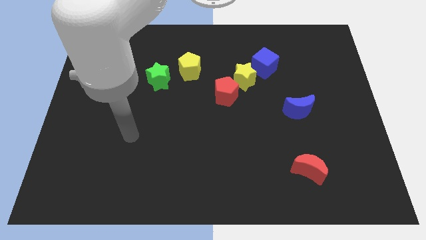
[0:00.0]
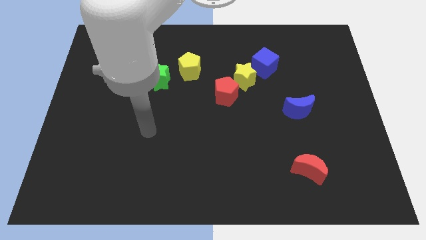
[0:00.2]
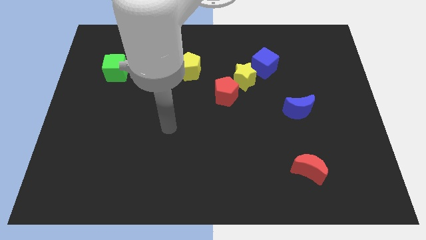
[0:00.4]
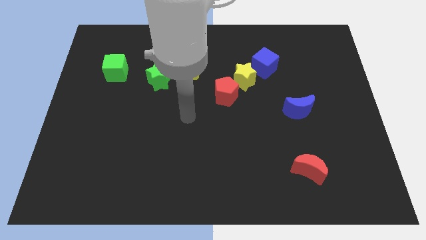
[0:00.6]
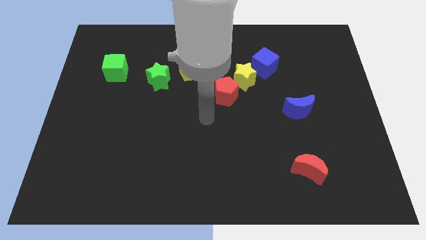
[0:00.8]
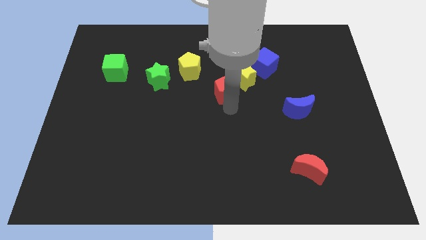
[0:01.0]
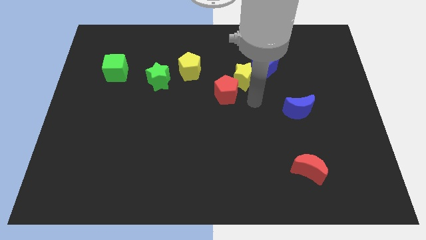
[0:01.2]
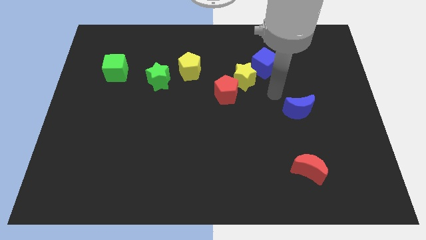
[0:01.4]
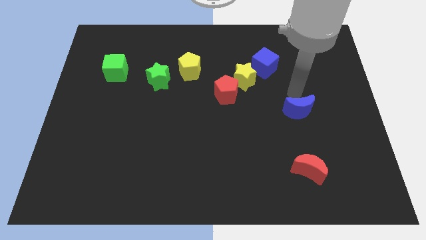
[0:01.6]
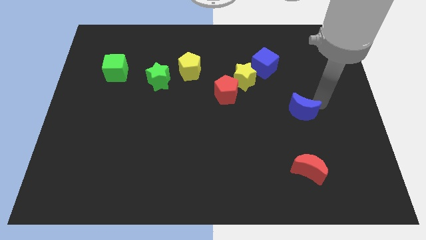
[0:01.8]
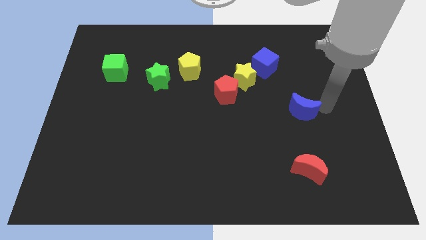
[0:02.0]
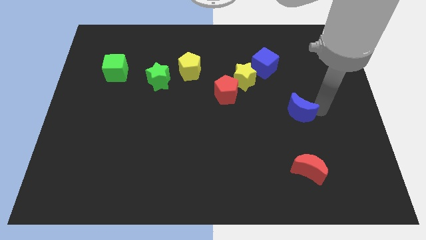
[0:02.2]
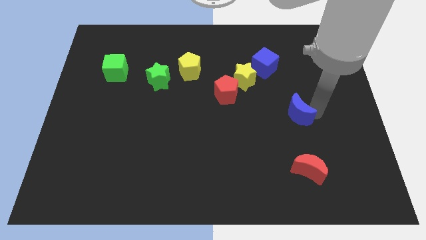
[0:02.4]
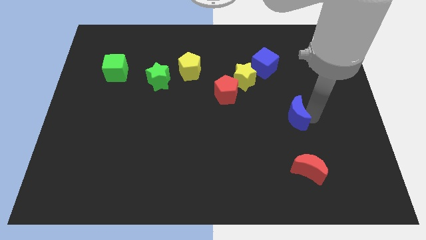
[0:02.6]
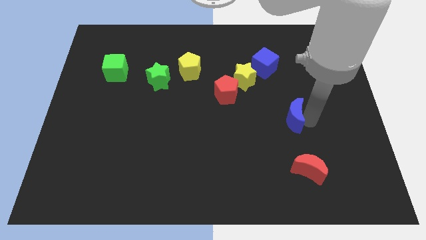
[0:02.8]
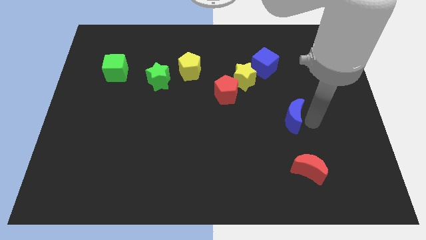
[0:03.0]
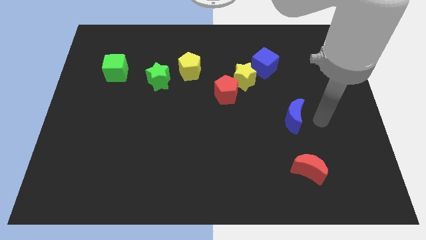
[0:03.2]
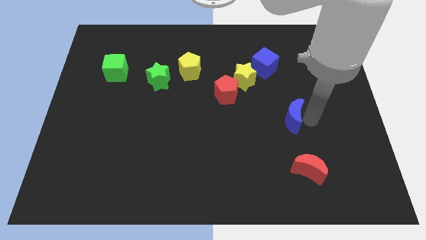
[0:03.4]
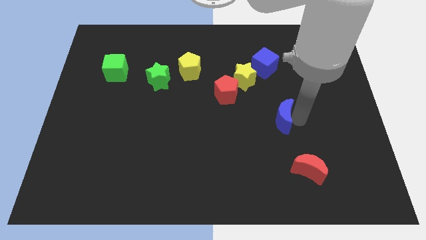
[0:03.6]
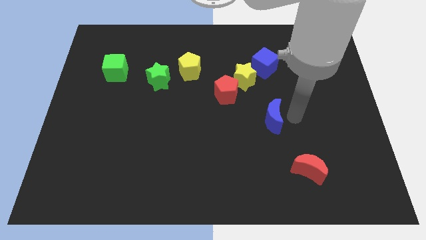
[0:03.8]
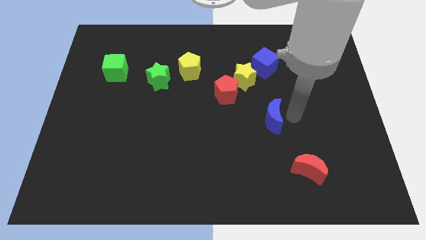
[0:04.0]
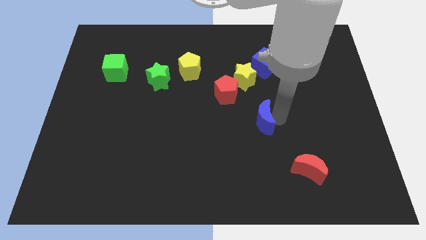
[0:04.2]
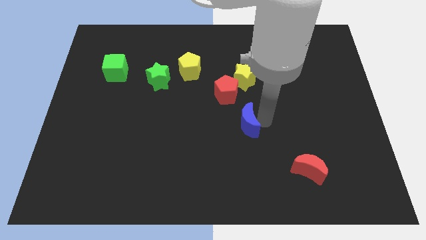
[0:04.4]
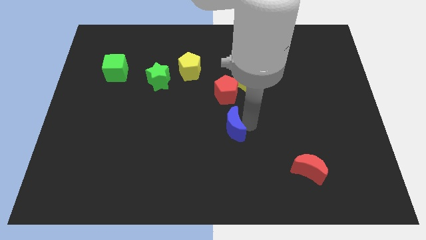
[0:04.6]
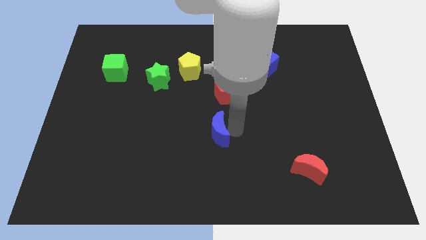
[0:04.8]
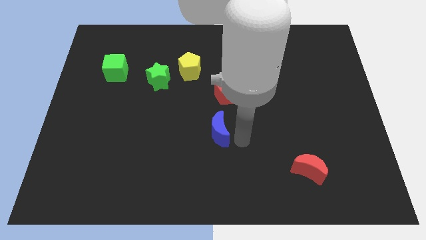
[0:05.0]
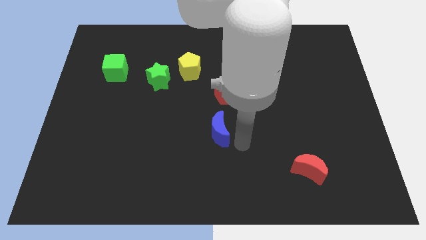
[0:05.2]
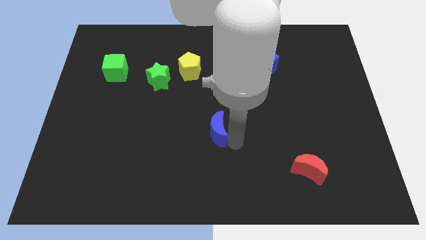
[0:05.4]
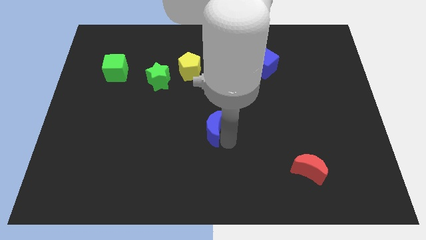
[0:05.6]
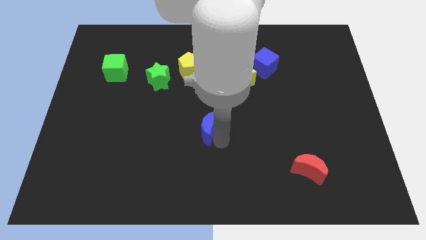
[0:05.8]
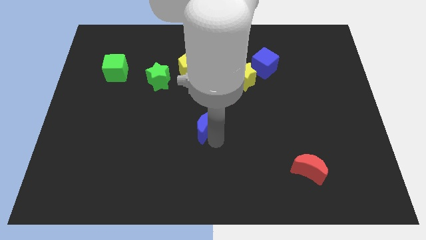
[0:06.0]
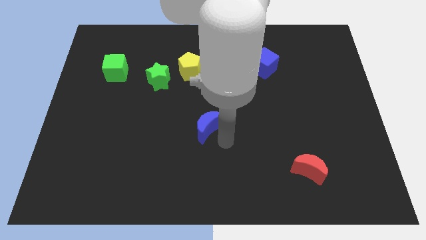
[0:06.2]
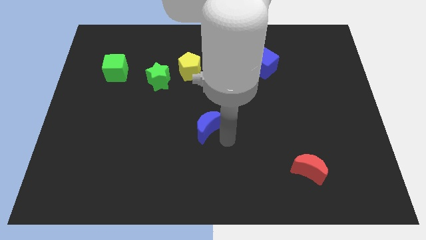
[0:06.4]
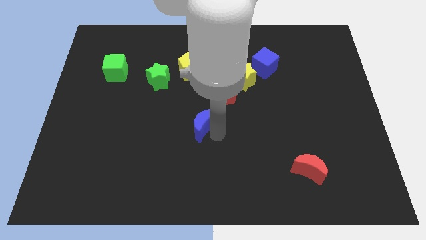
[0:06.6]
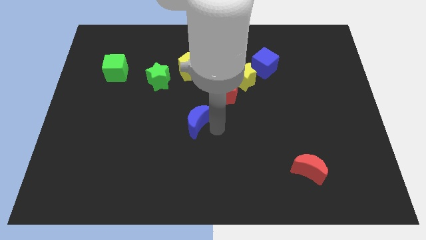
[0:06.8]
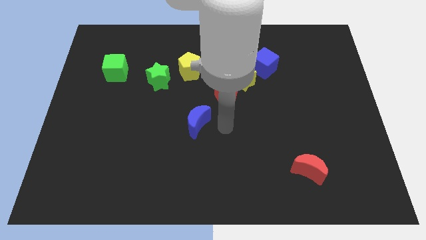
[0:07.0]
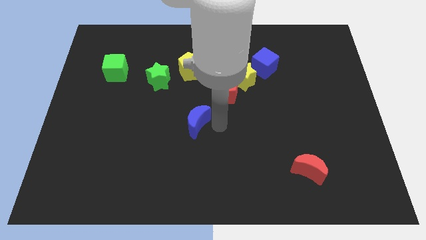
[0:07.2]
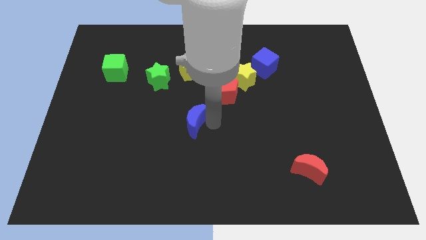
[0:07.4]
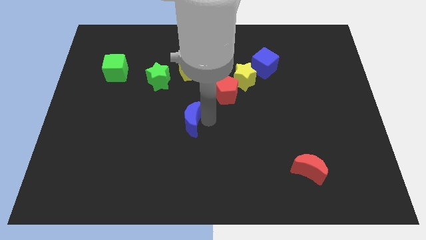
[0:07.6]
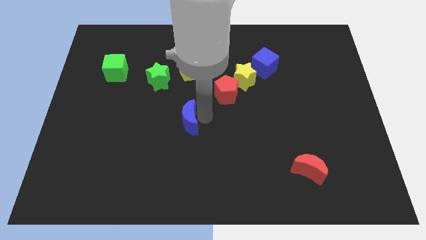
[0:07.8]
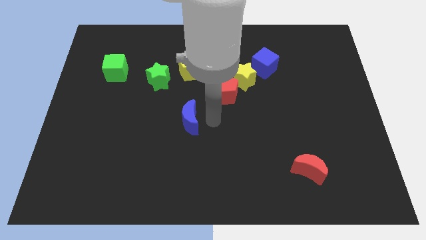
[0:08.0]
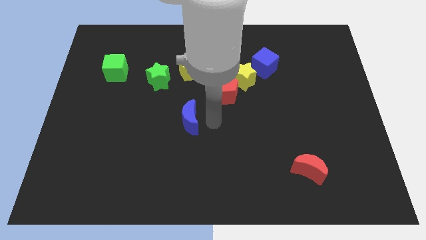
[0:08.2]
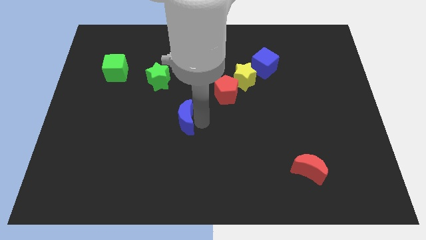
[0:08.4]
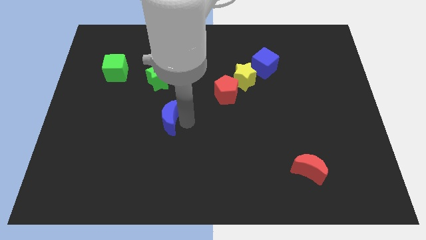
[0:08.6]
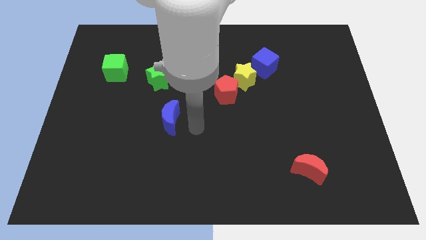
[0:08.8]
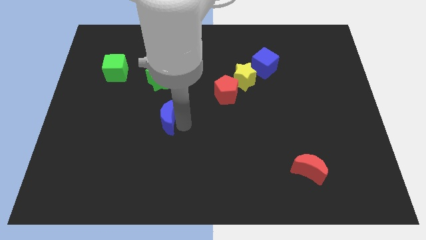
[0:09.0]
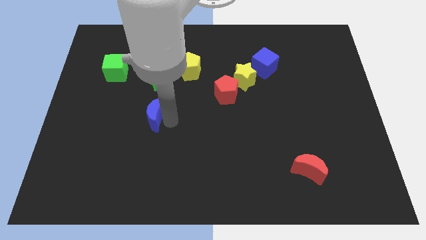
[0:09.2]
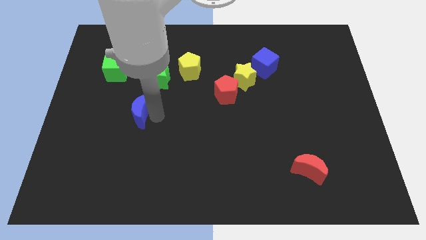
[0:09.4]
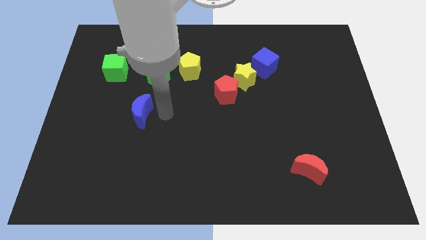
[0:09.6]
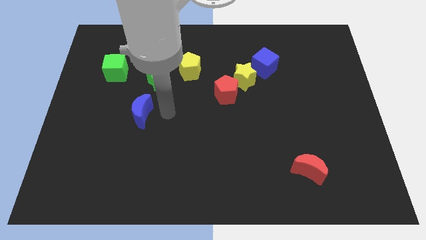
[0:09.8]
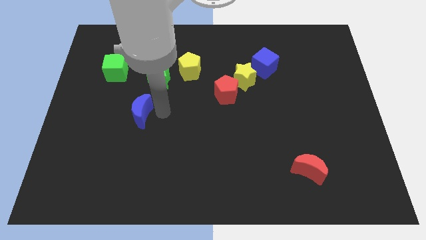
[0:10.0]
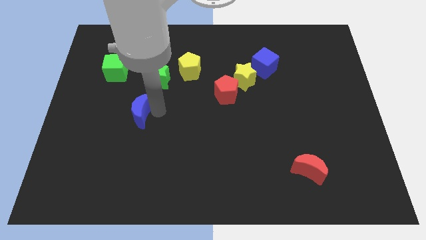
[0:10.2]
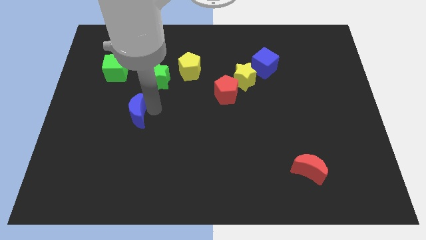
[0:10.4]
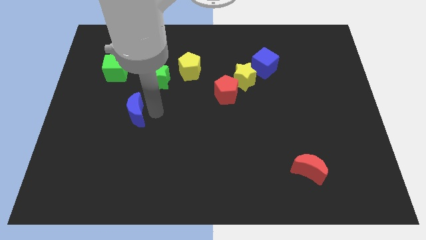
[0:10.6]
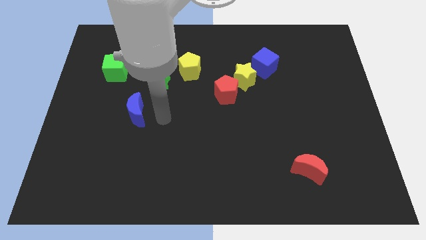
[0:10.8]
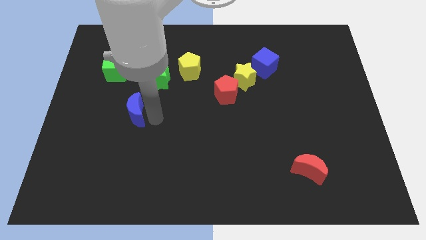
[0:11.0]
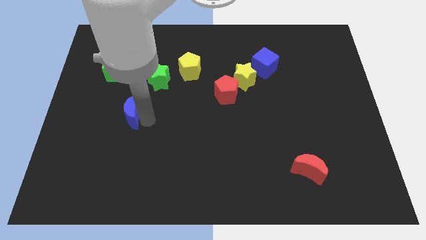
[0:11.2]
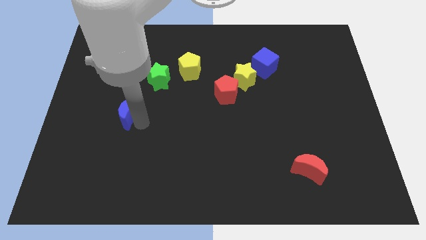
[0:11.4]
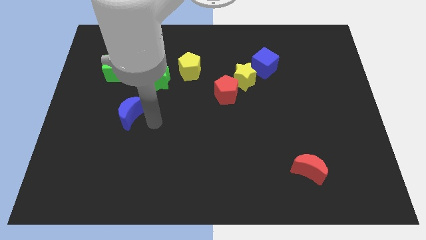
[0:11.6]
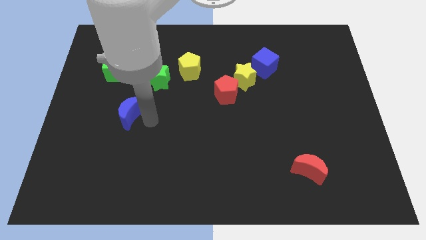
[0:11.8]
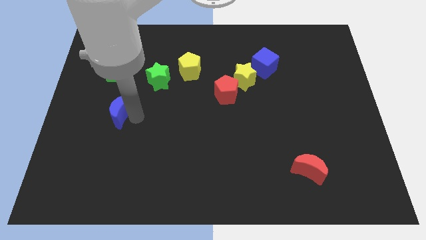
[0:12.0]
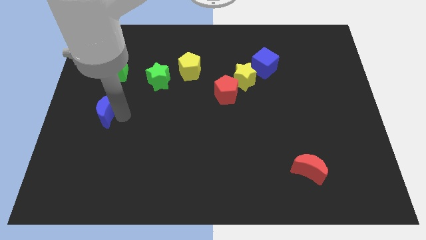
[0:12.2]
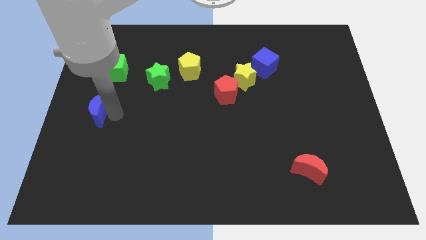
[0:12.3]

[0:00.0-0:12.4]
put the blue moon to the center left

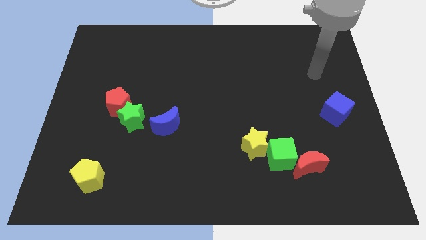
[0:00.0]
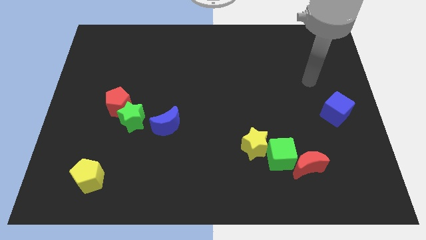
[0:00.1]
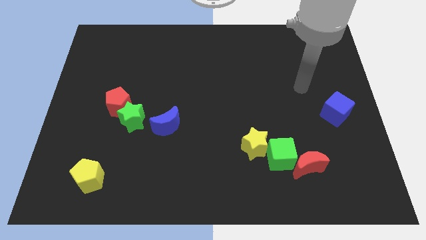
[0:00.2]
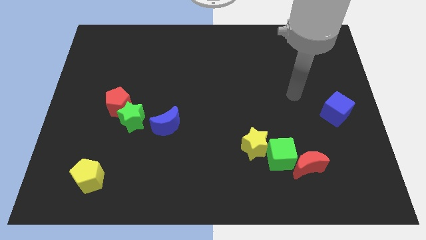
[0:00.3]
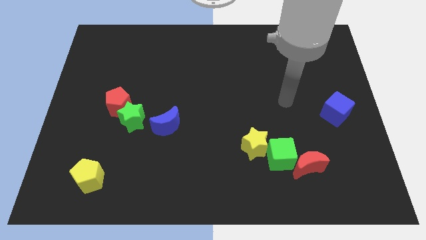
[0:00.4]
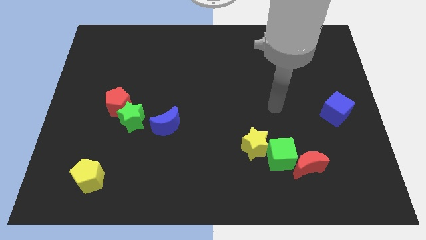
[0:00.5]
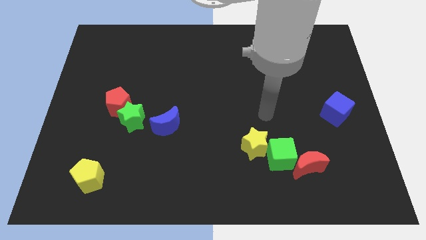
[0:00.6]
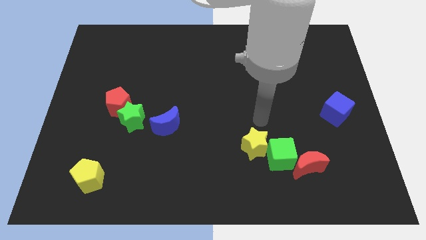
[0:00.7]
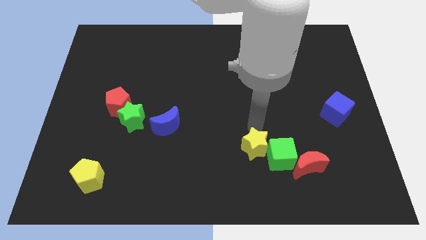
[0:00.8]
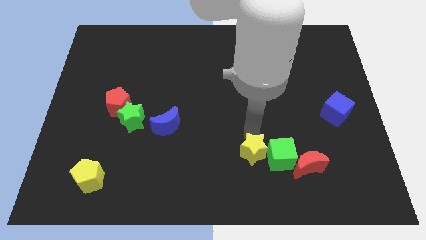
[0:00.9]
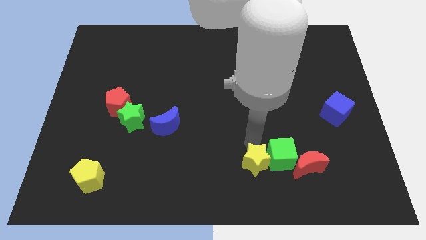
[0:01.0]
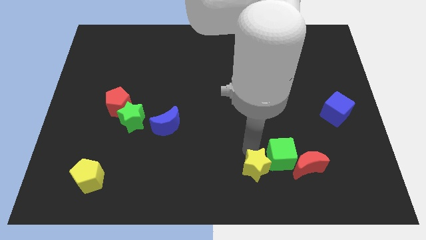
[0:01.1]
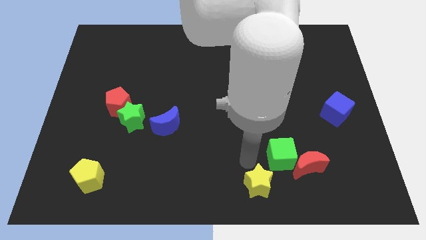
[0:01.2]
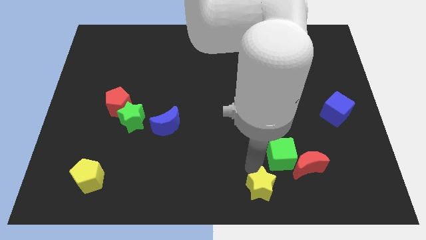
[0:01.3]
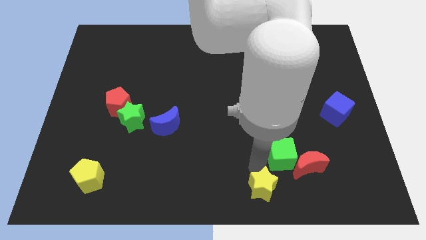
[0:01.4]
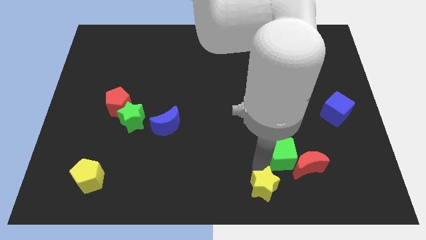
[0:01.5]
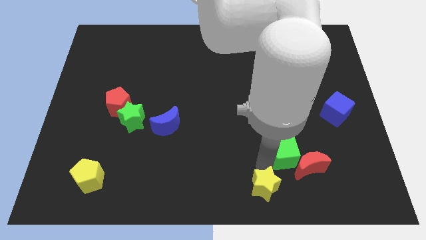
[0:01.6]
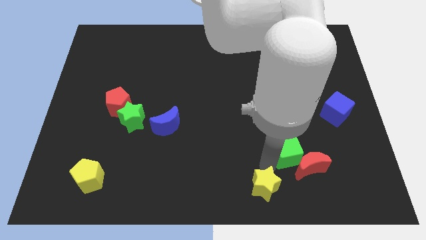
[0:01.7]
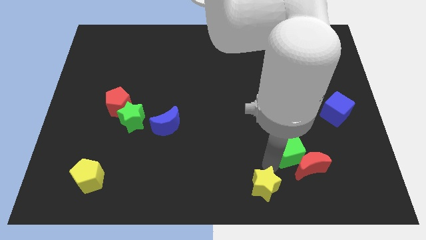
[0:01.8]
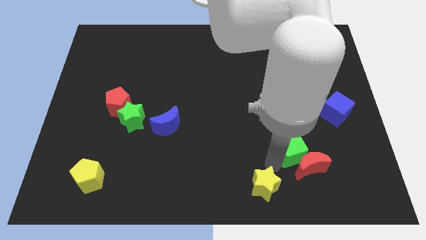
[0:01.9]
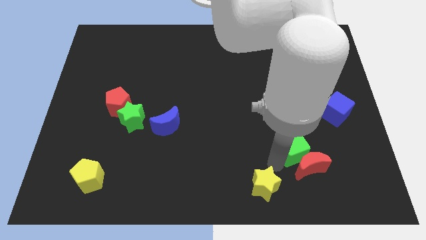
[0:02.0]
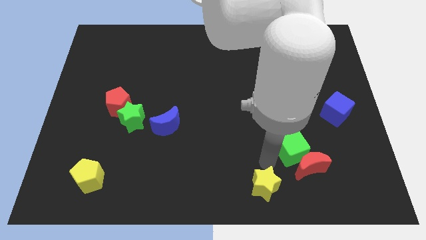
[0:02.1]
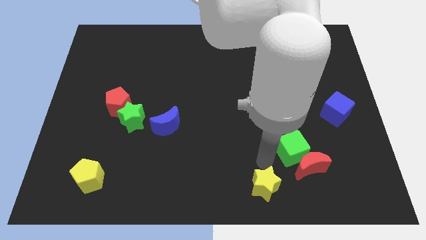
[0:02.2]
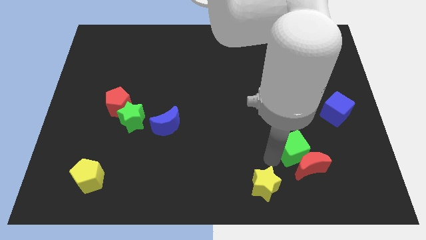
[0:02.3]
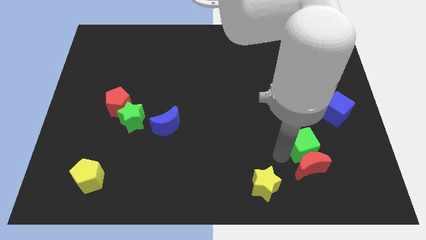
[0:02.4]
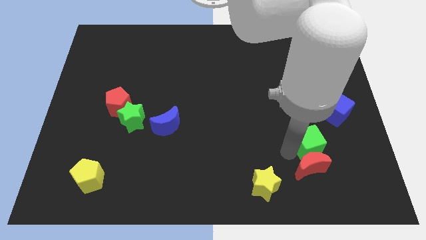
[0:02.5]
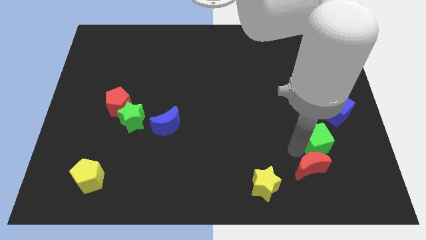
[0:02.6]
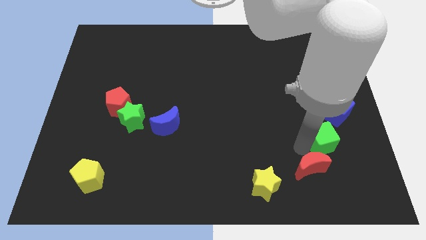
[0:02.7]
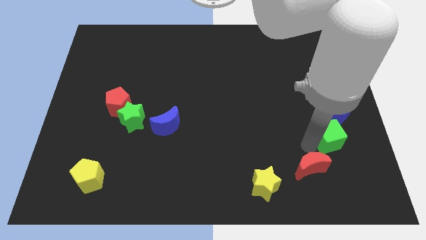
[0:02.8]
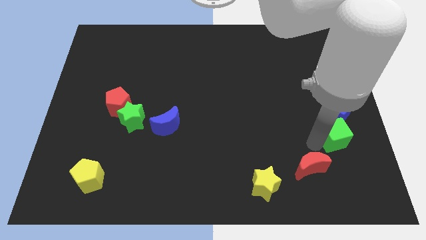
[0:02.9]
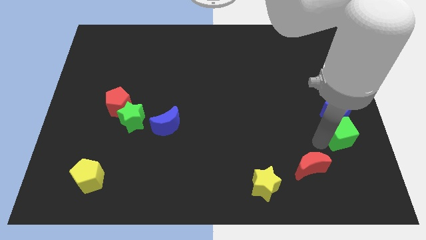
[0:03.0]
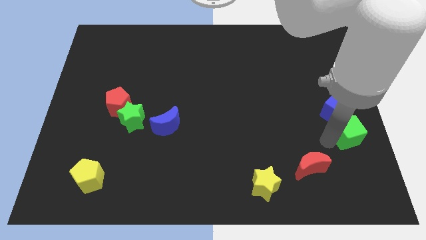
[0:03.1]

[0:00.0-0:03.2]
move the green cube to the right side
